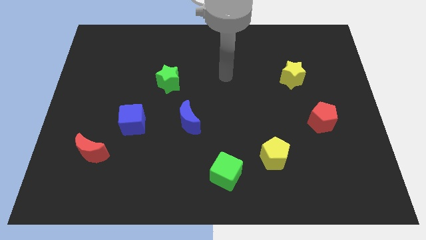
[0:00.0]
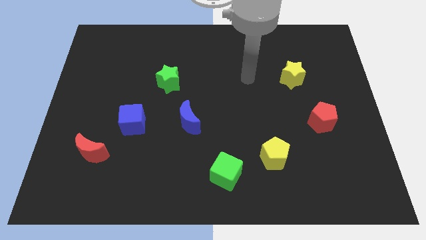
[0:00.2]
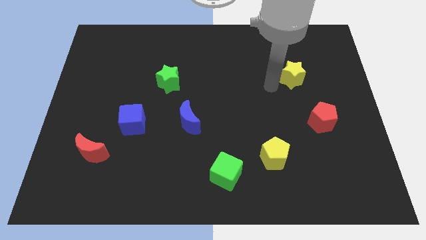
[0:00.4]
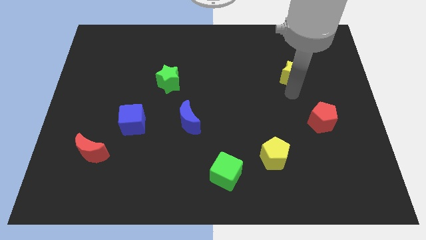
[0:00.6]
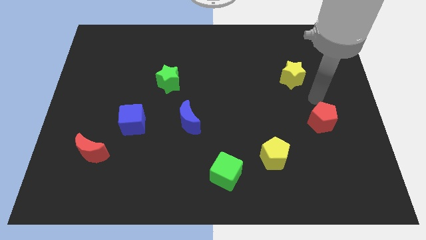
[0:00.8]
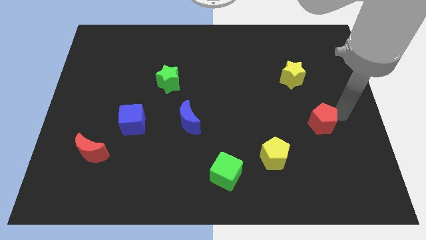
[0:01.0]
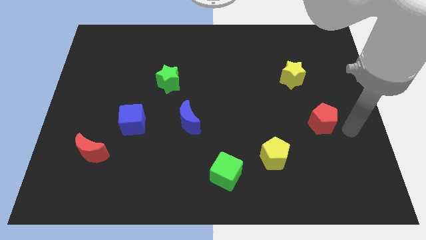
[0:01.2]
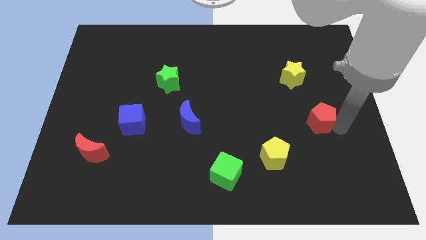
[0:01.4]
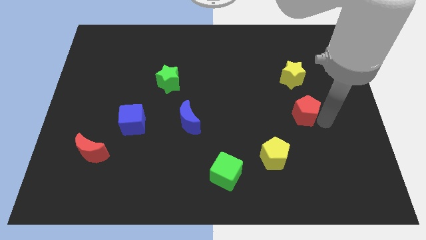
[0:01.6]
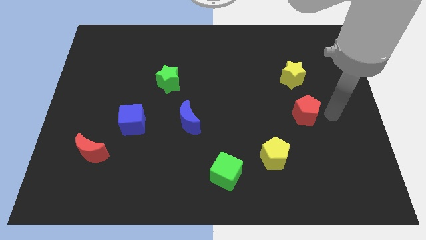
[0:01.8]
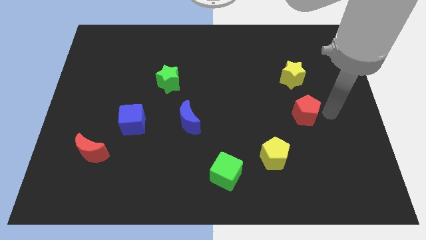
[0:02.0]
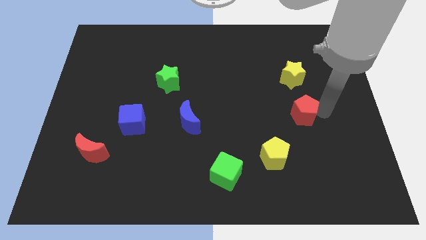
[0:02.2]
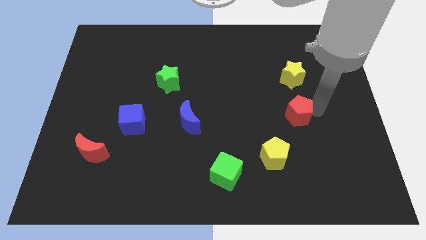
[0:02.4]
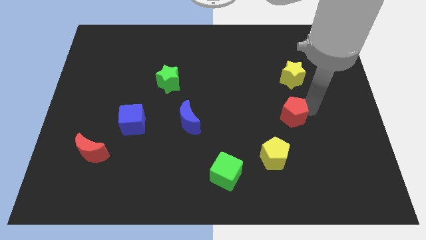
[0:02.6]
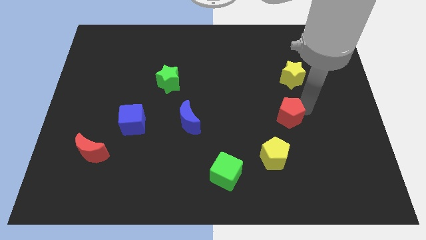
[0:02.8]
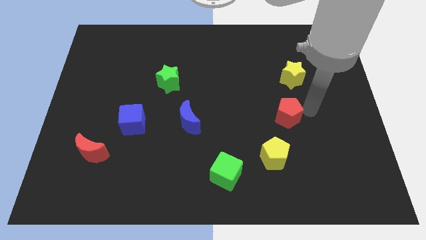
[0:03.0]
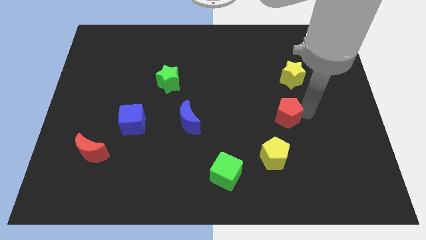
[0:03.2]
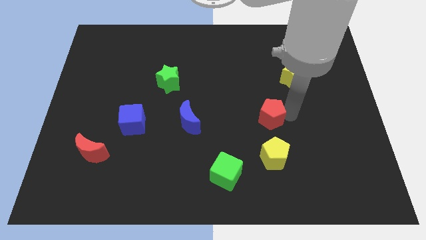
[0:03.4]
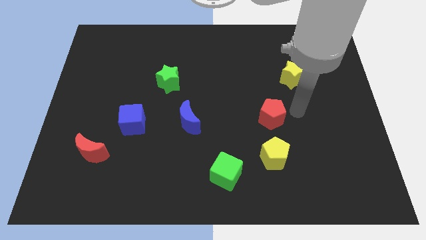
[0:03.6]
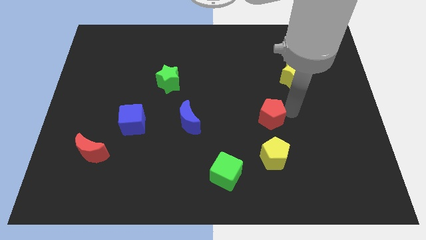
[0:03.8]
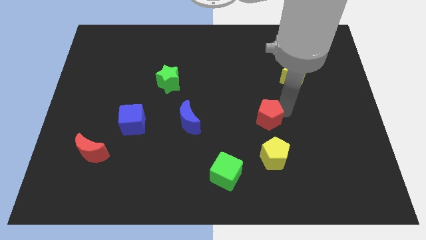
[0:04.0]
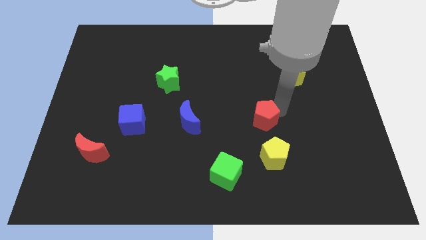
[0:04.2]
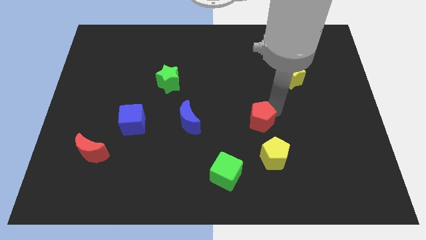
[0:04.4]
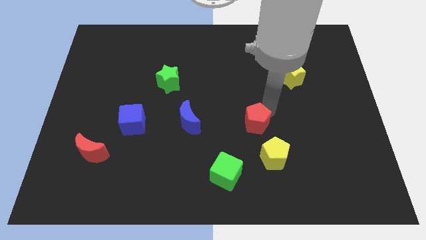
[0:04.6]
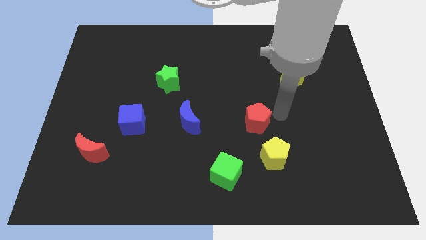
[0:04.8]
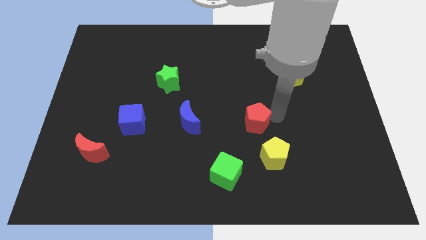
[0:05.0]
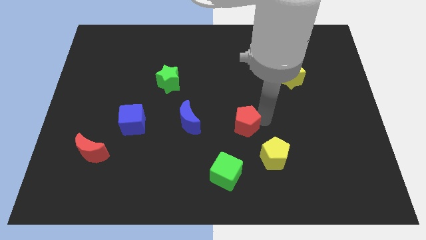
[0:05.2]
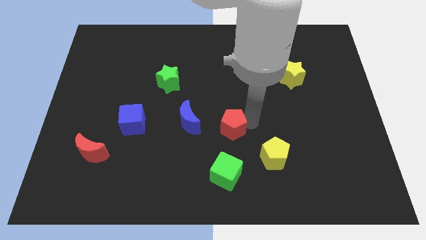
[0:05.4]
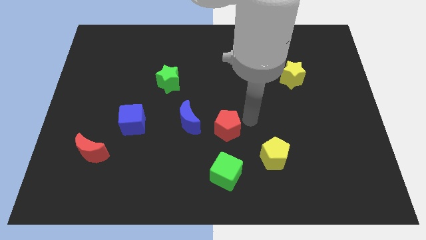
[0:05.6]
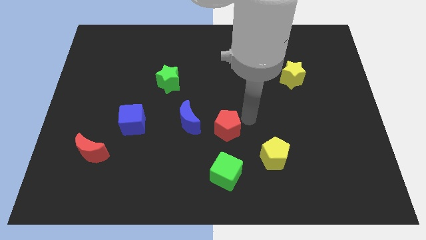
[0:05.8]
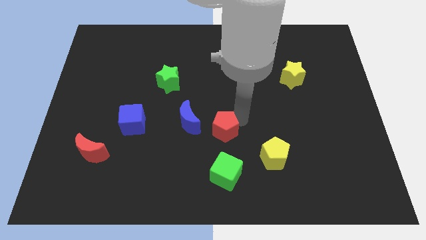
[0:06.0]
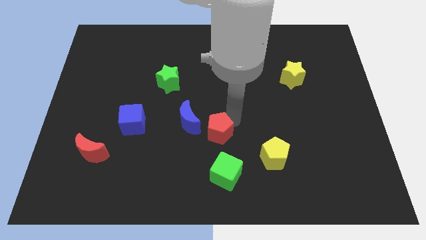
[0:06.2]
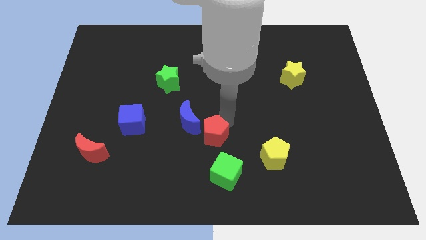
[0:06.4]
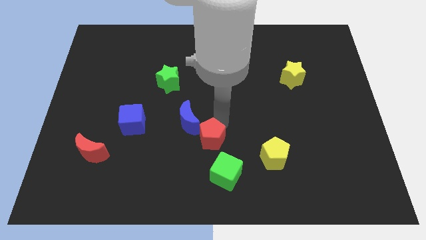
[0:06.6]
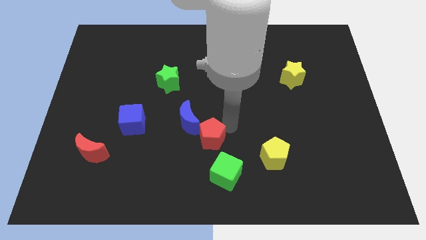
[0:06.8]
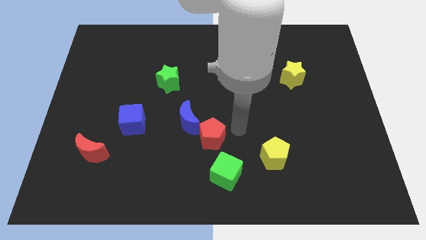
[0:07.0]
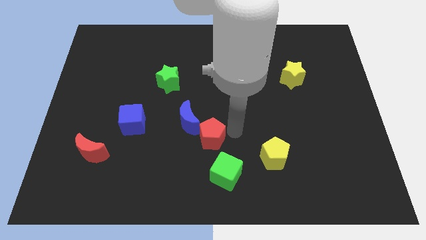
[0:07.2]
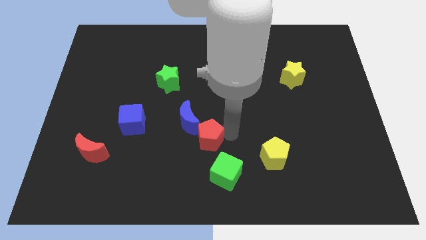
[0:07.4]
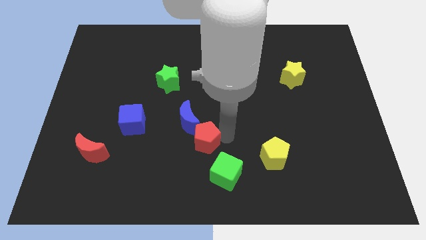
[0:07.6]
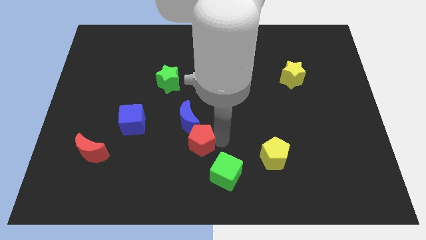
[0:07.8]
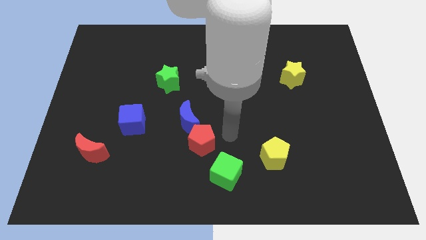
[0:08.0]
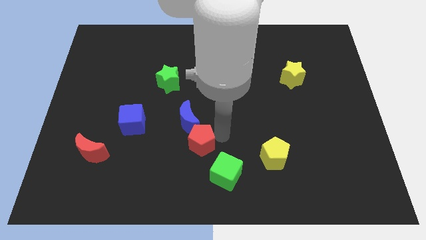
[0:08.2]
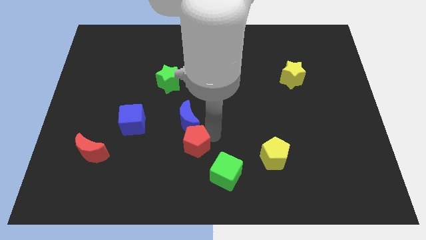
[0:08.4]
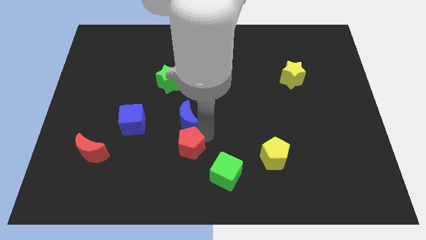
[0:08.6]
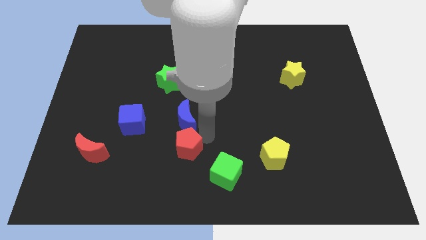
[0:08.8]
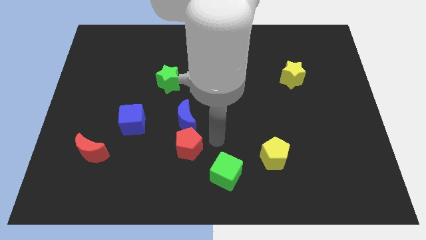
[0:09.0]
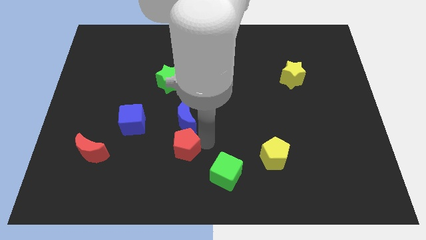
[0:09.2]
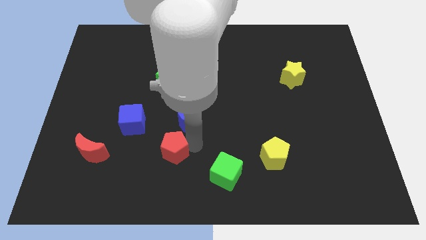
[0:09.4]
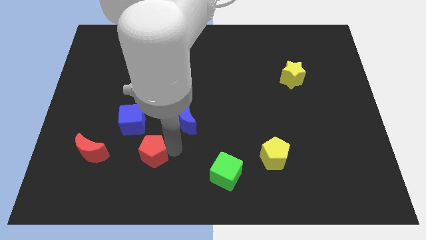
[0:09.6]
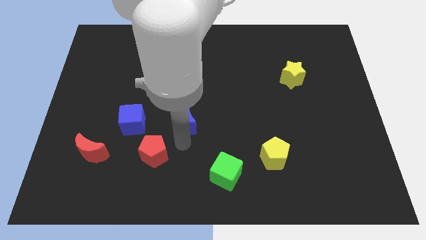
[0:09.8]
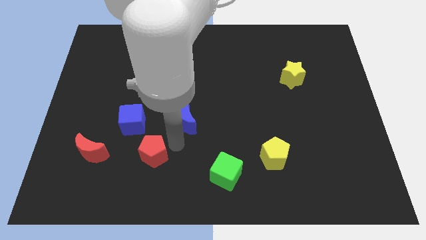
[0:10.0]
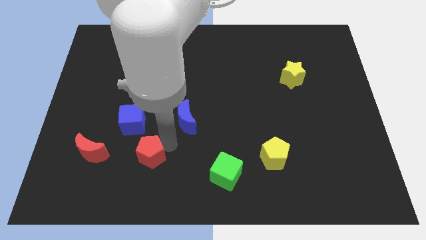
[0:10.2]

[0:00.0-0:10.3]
slide the red pentagon below the blue cube

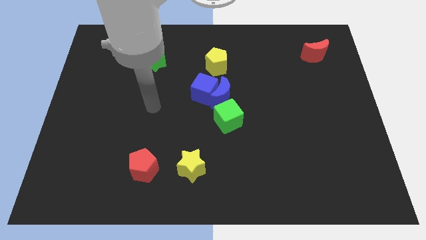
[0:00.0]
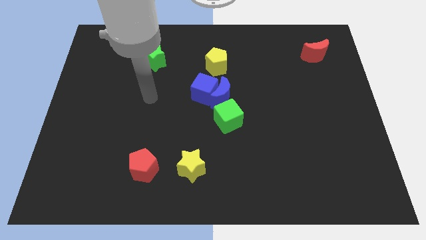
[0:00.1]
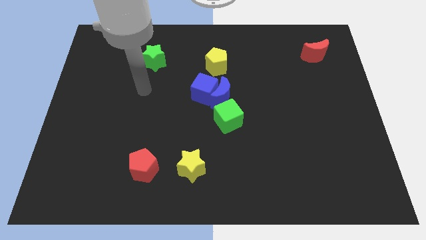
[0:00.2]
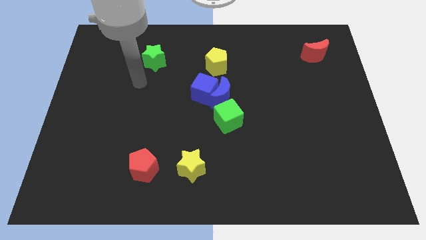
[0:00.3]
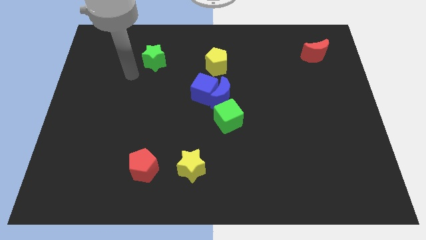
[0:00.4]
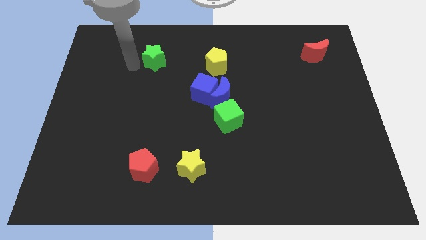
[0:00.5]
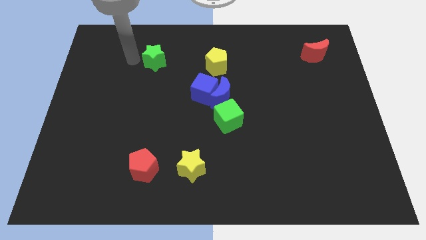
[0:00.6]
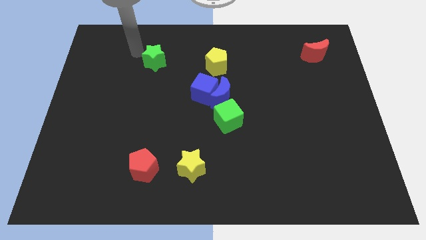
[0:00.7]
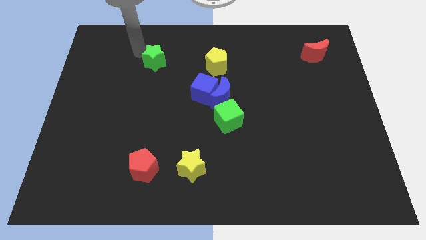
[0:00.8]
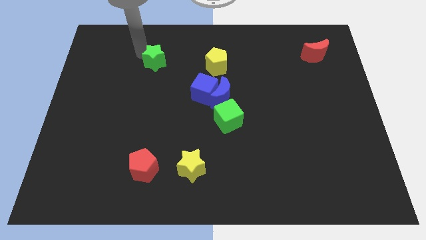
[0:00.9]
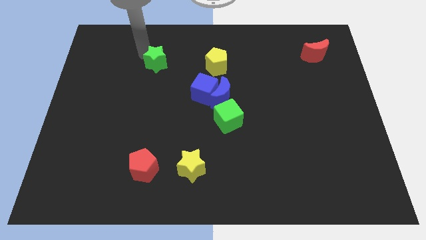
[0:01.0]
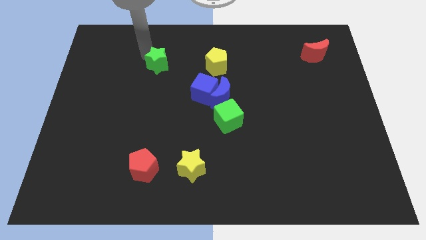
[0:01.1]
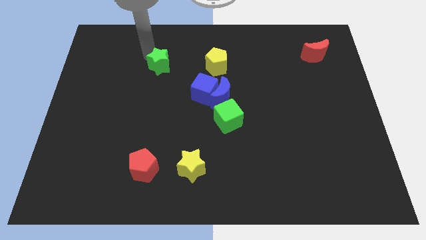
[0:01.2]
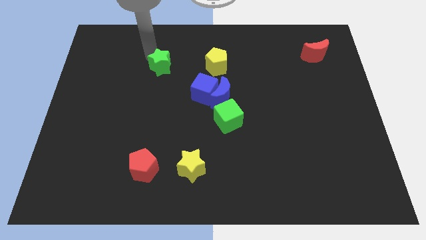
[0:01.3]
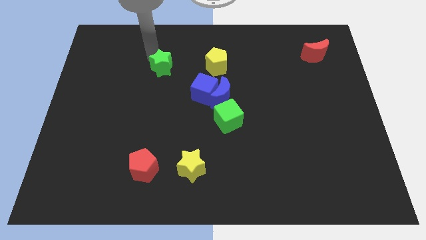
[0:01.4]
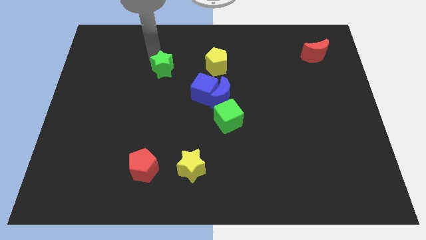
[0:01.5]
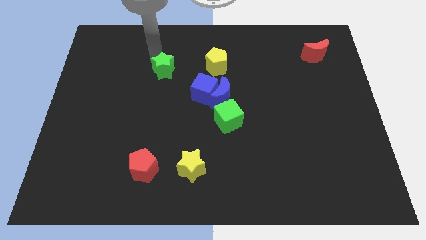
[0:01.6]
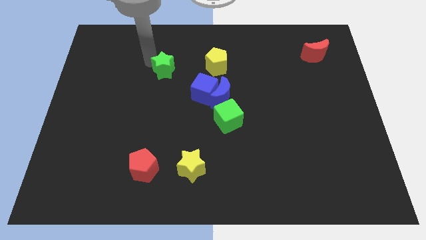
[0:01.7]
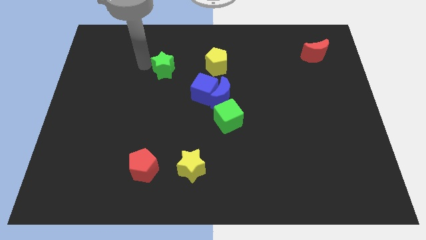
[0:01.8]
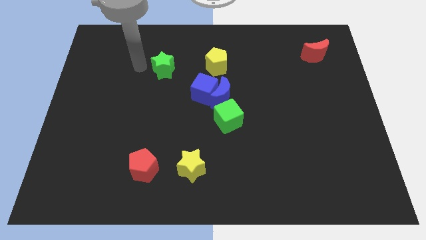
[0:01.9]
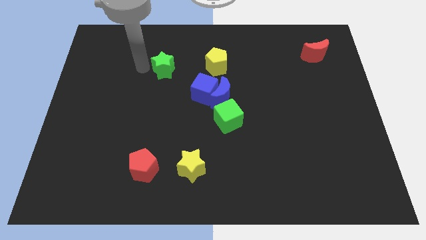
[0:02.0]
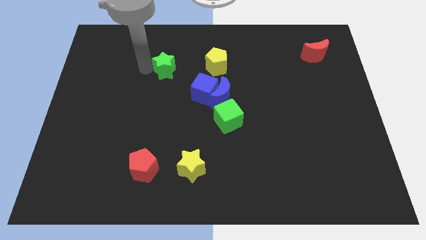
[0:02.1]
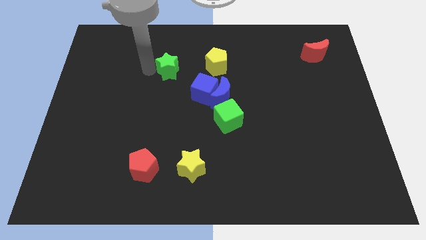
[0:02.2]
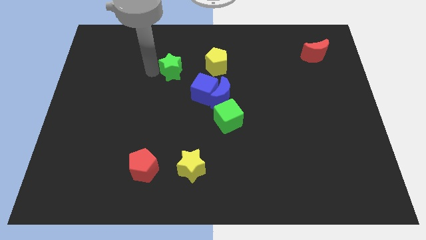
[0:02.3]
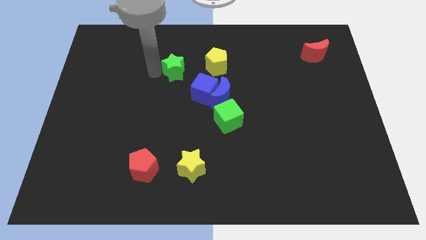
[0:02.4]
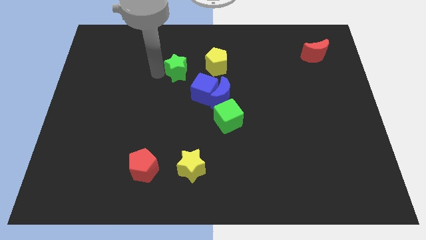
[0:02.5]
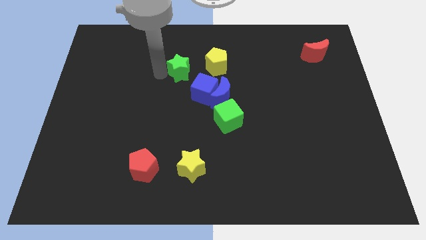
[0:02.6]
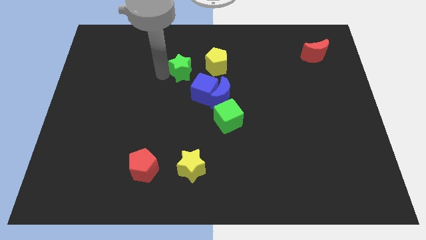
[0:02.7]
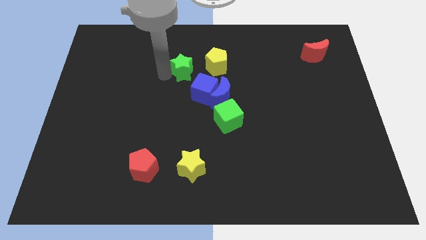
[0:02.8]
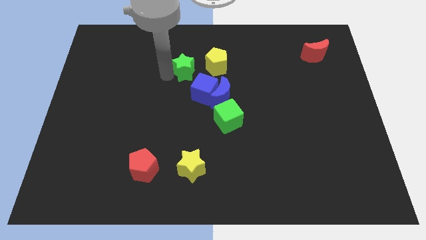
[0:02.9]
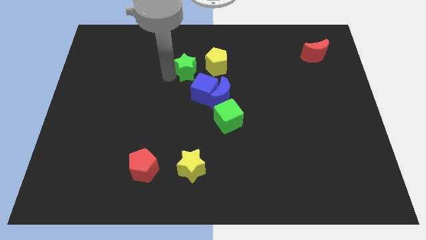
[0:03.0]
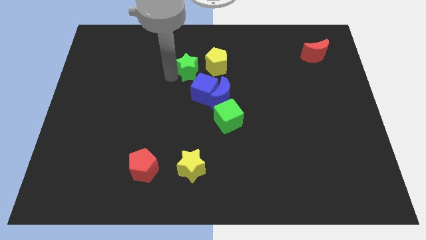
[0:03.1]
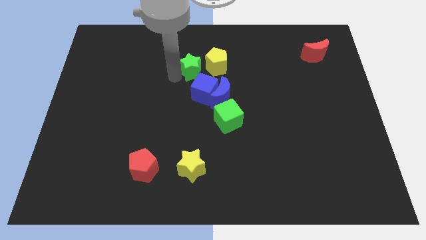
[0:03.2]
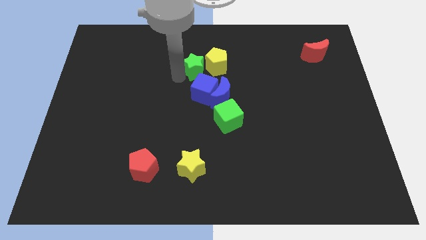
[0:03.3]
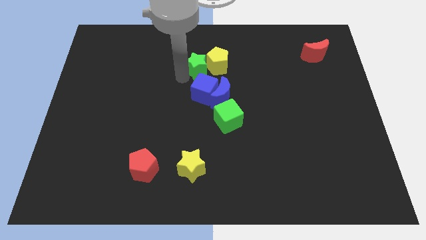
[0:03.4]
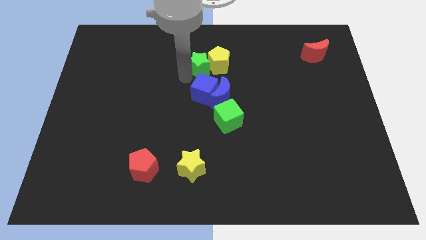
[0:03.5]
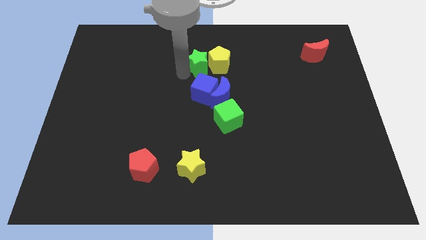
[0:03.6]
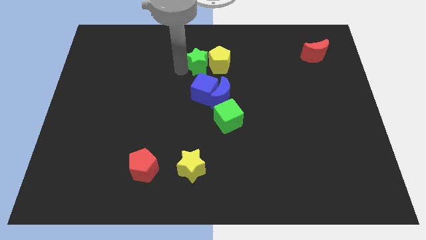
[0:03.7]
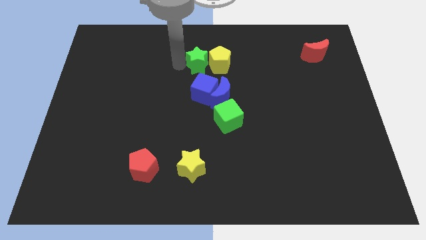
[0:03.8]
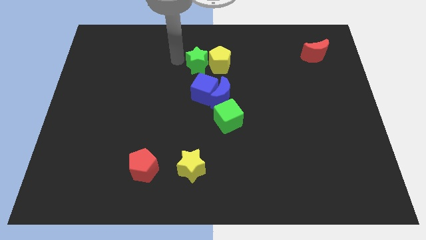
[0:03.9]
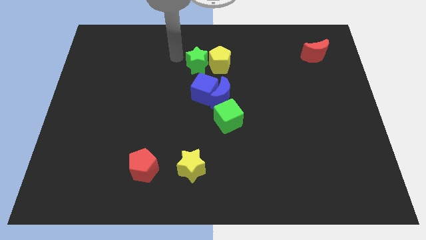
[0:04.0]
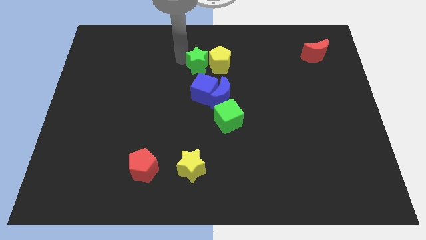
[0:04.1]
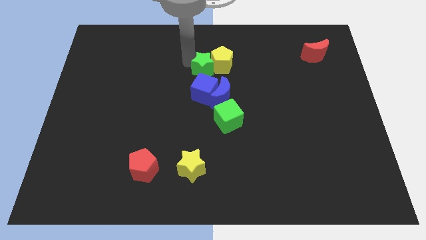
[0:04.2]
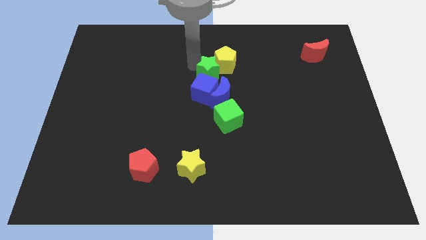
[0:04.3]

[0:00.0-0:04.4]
push the green star to the top right side of the blue cube
